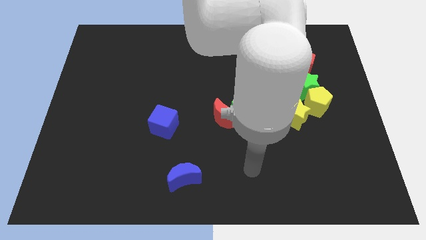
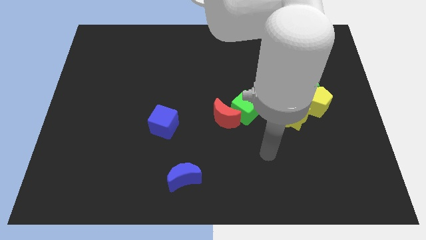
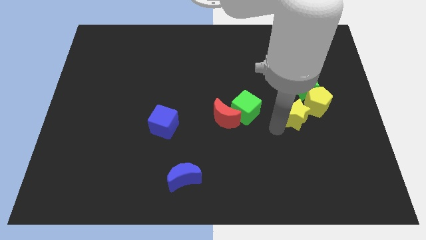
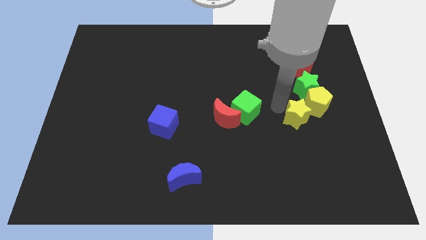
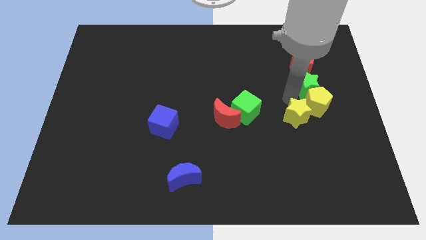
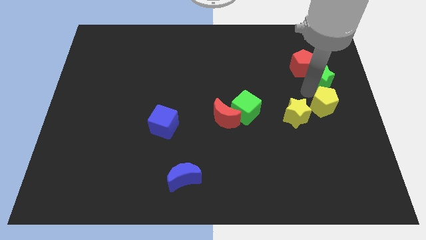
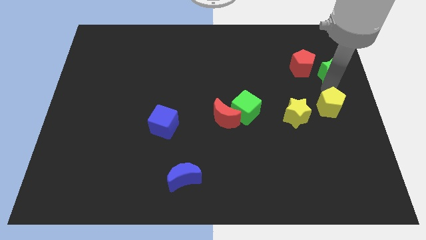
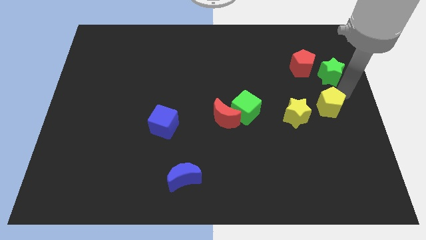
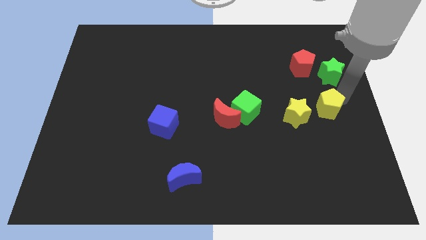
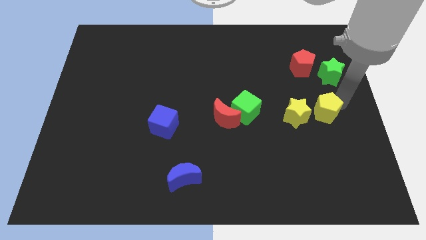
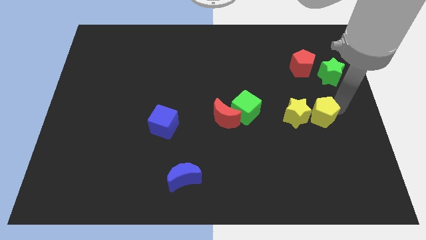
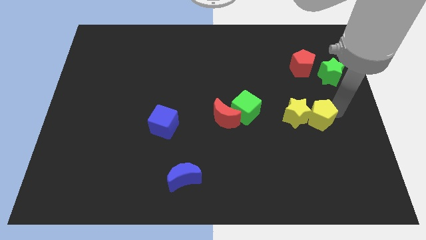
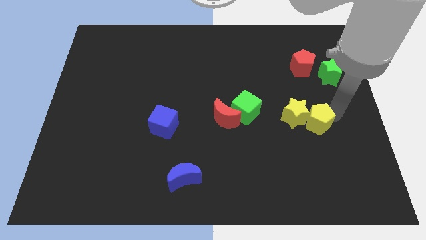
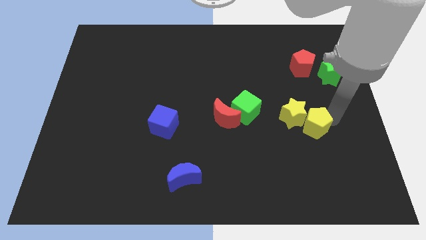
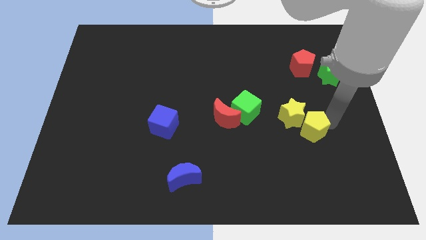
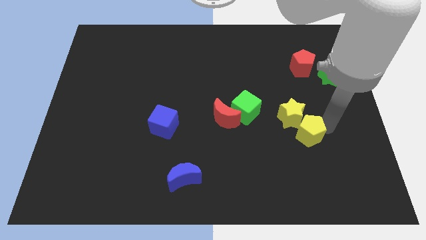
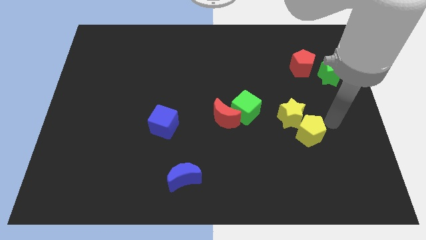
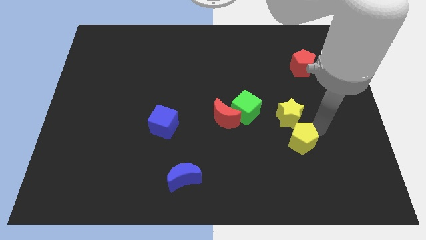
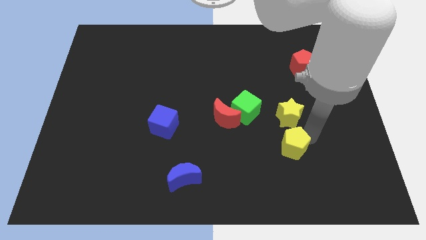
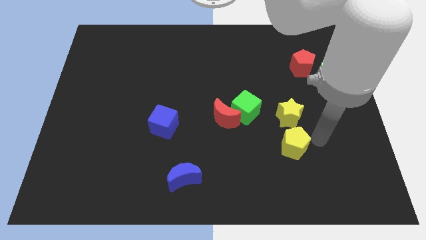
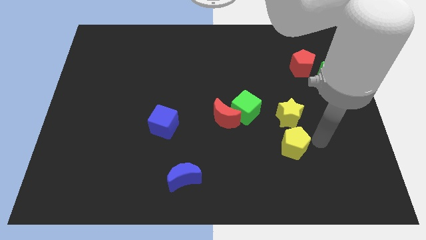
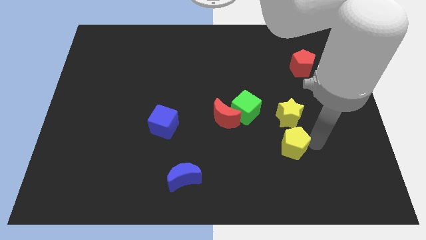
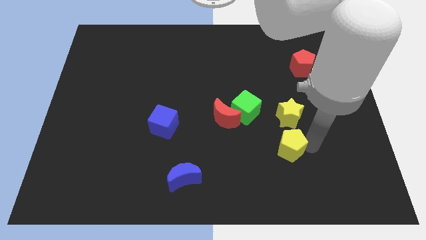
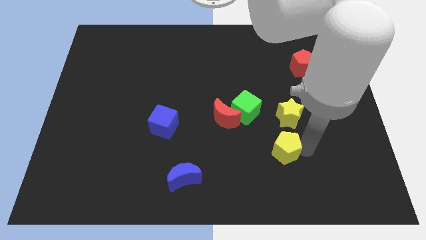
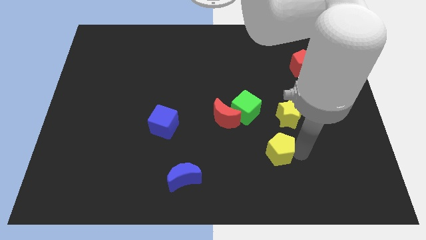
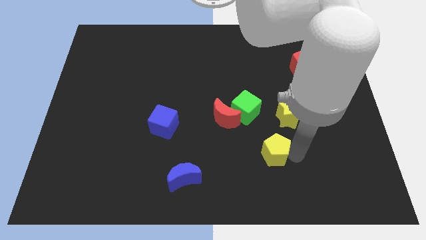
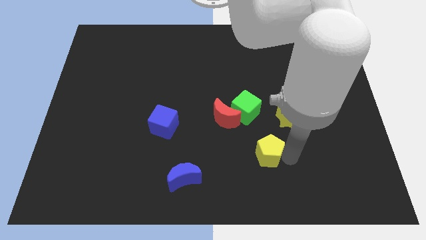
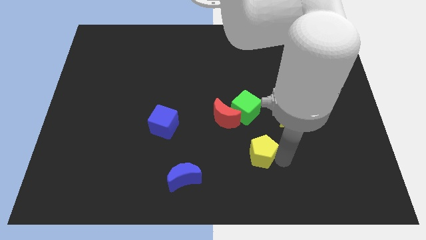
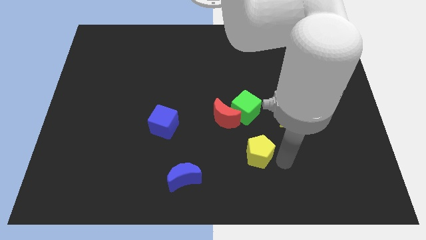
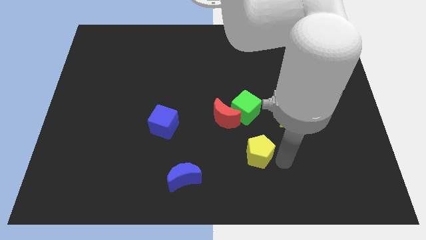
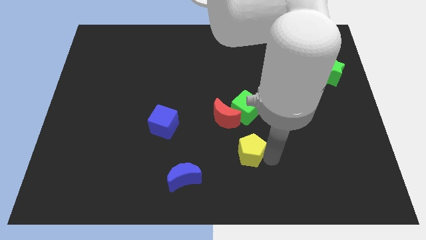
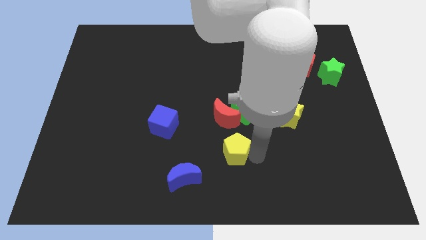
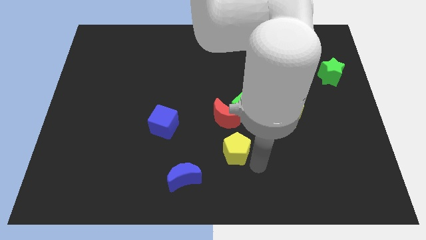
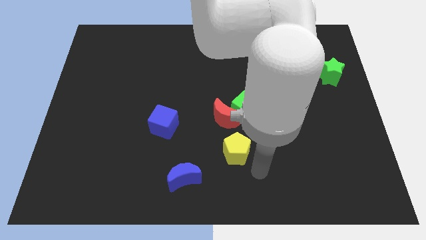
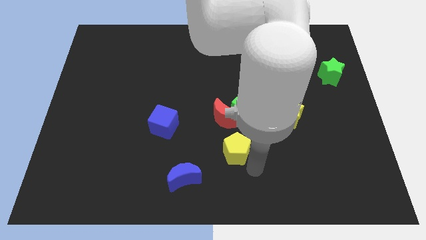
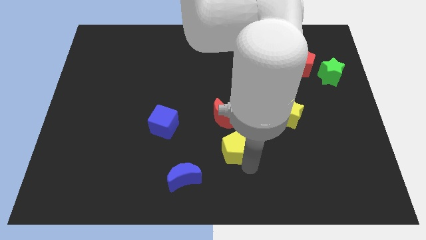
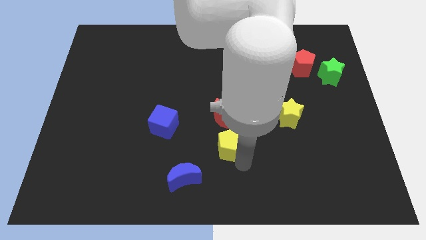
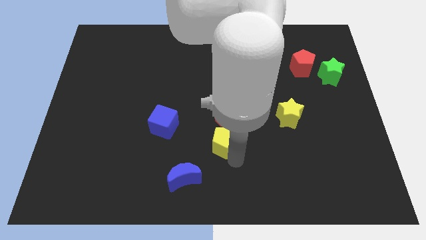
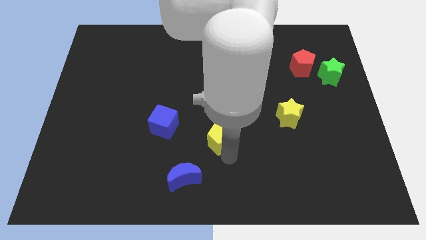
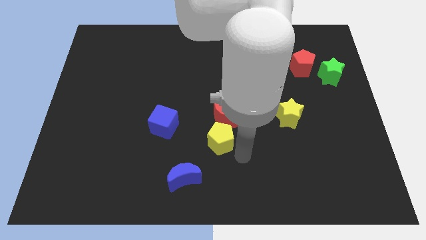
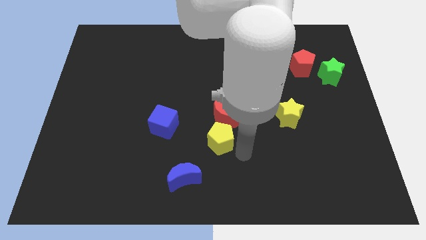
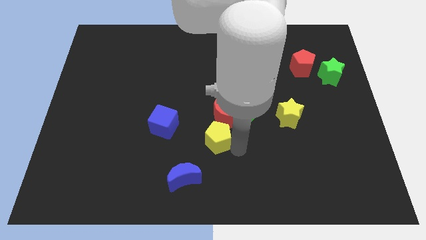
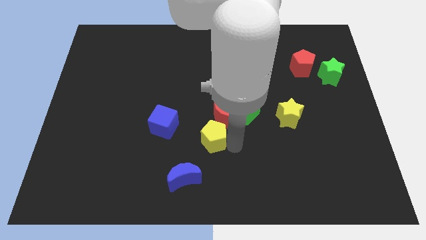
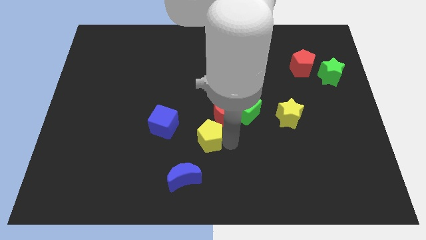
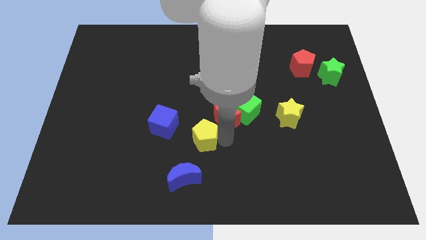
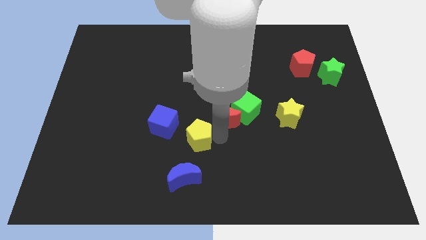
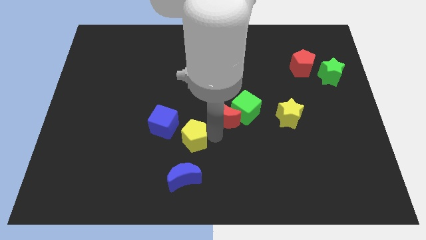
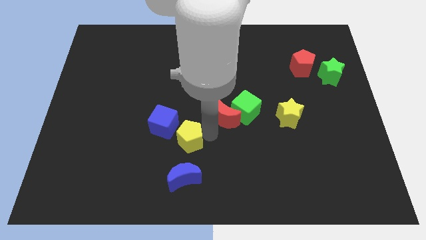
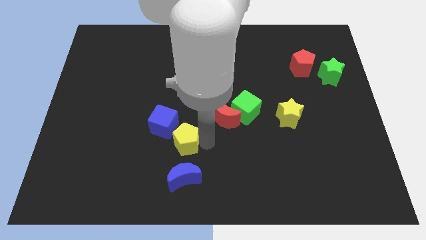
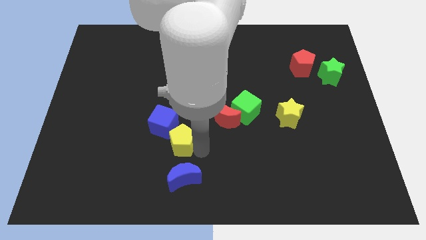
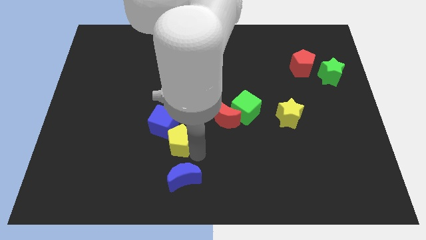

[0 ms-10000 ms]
put the yellow pentagon towards the blue cube

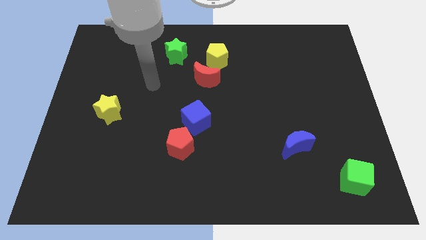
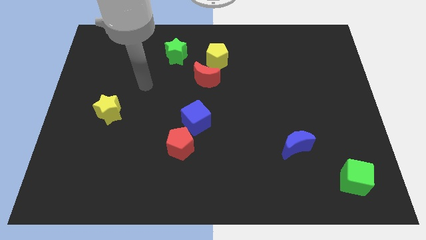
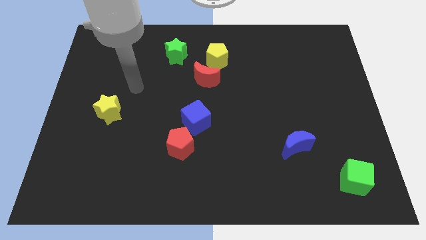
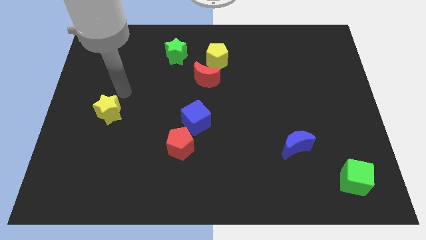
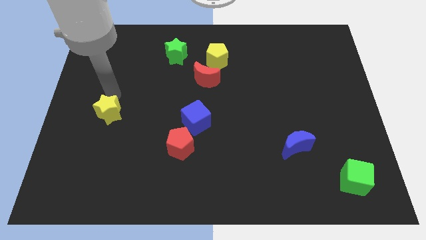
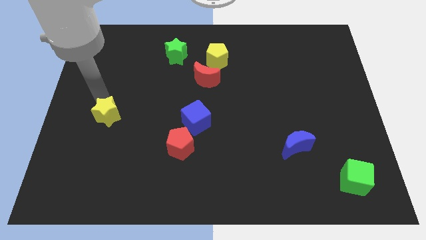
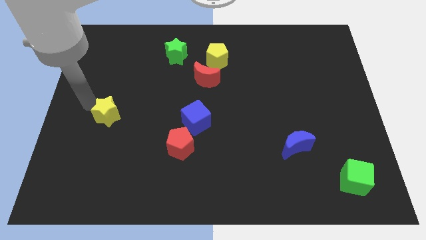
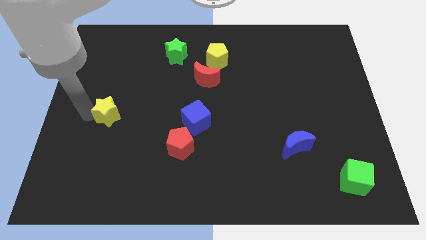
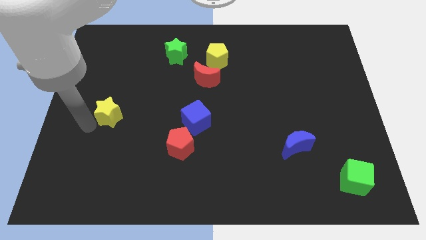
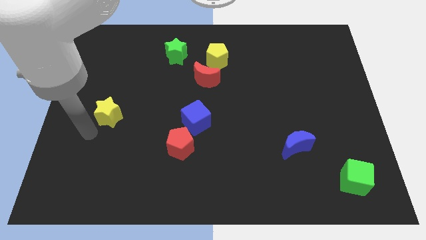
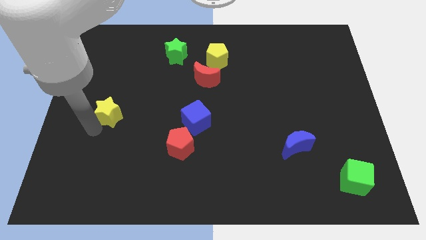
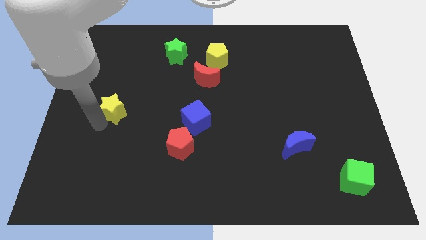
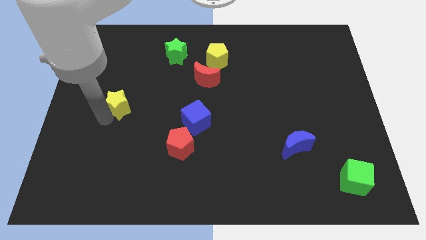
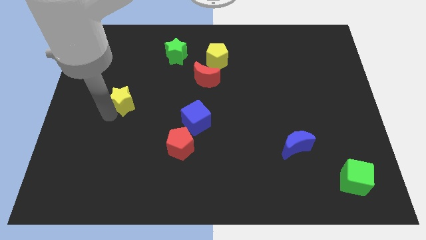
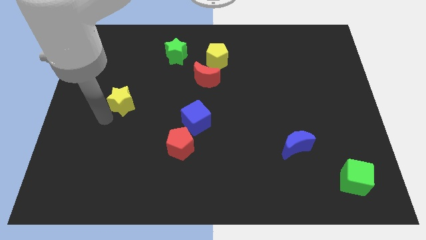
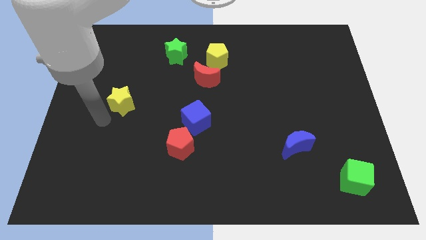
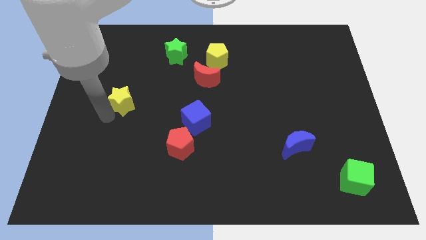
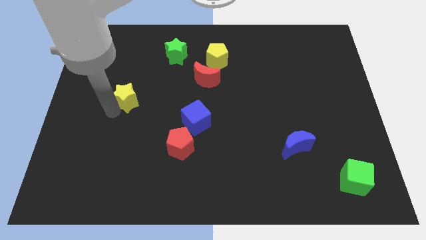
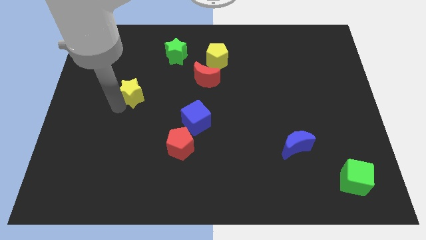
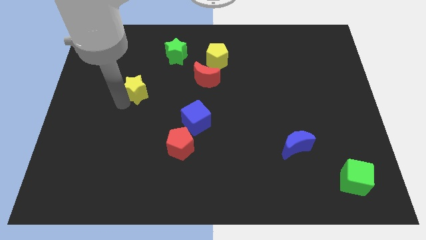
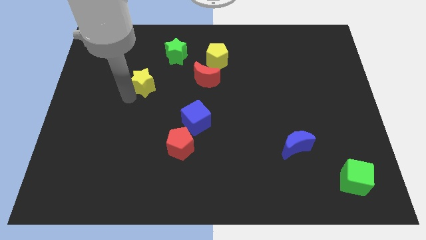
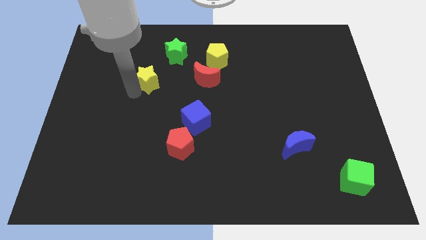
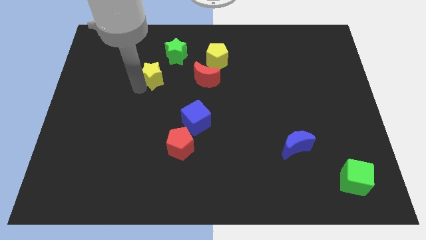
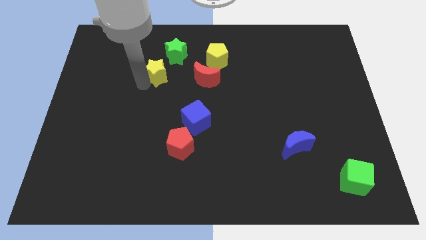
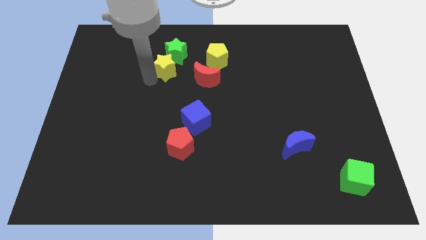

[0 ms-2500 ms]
move the yellow star next to the green star

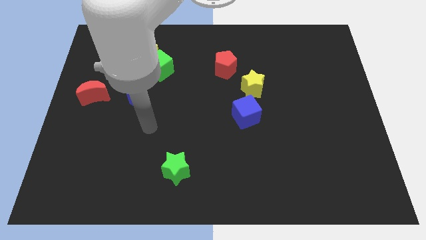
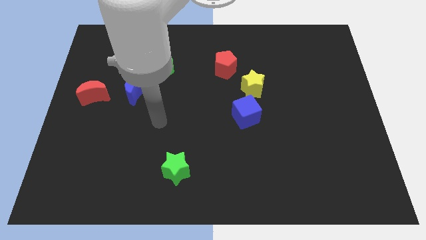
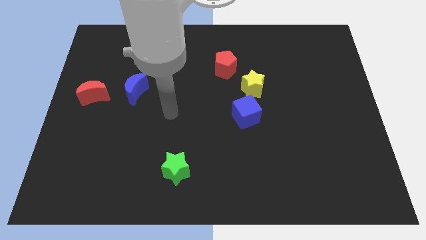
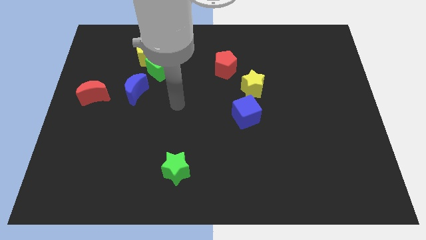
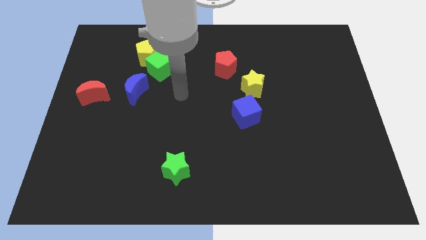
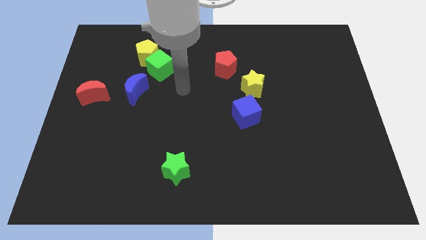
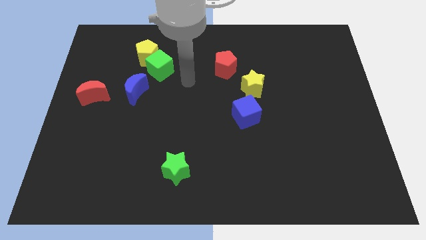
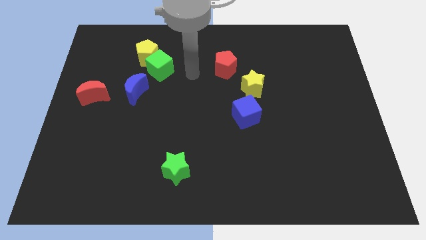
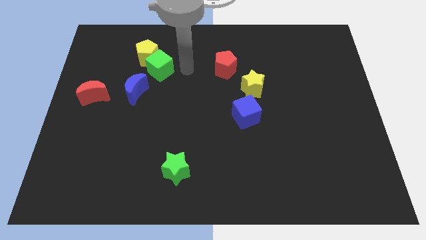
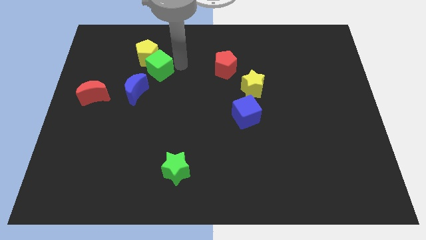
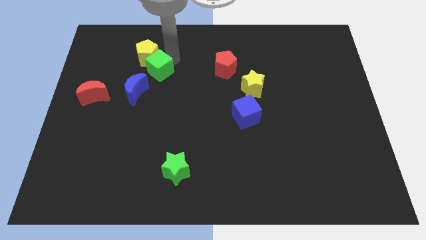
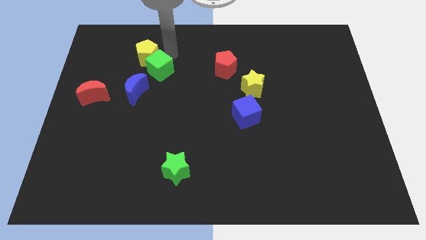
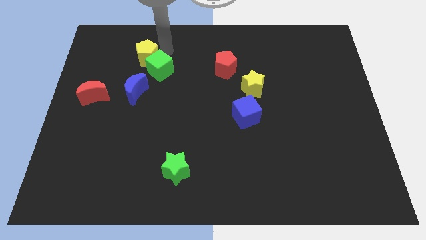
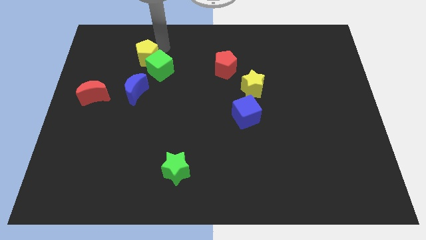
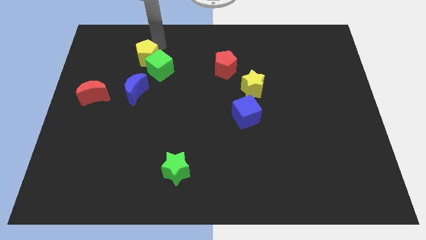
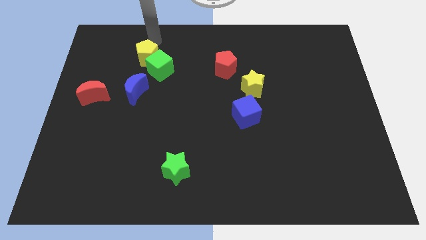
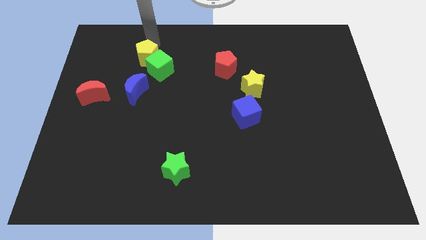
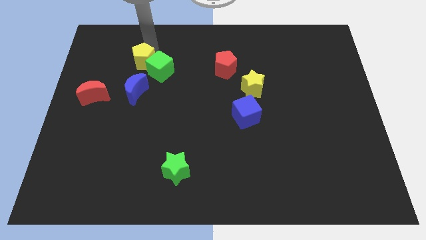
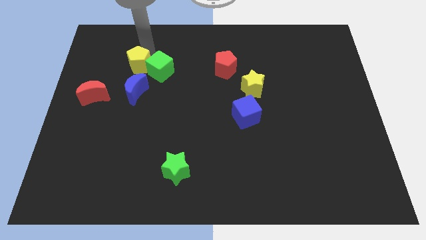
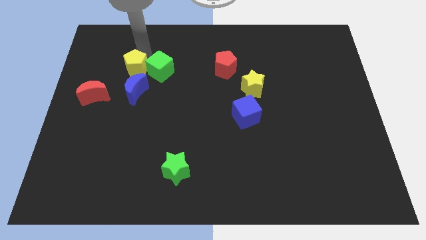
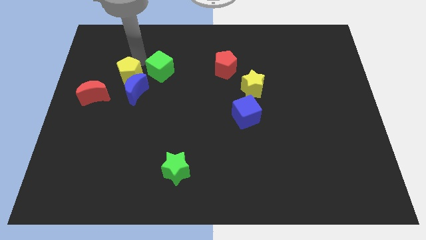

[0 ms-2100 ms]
slide the yellow pentagon to the blue moon
